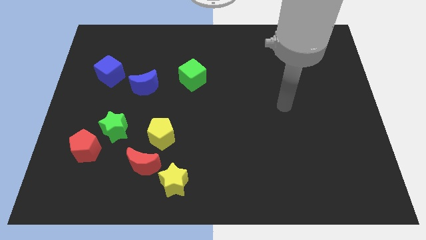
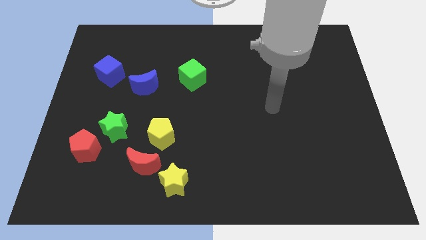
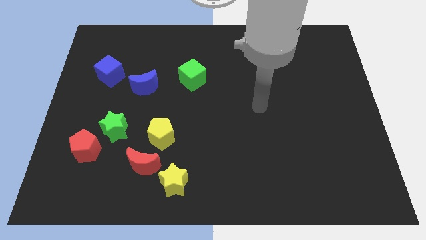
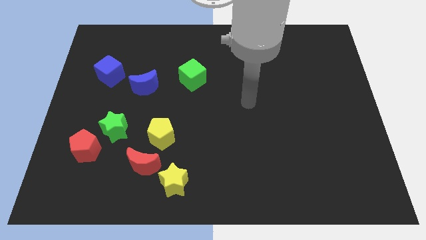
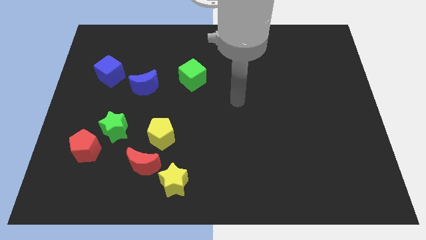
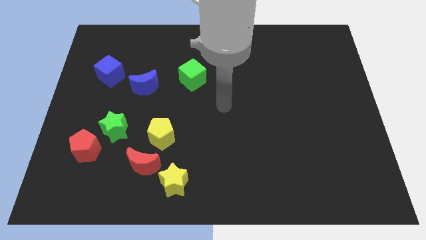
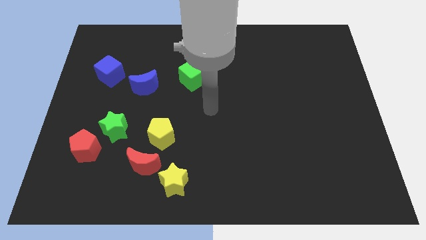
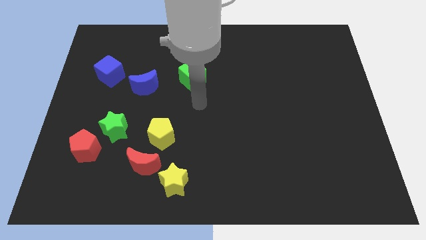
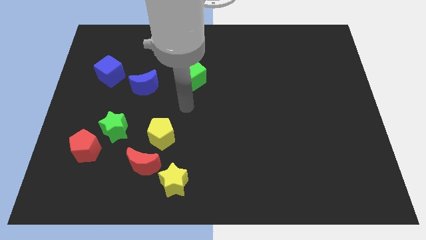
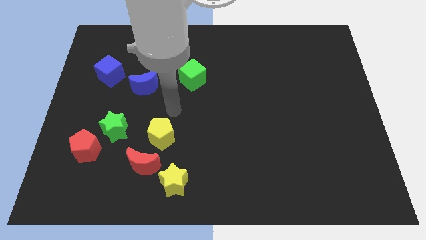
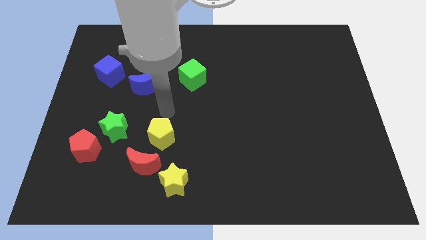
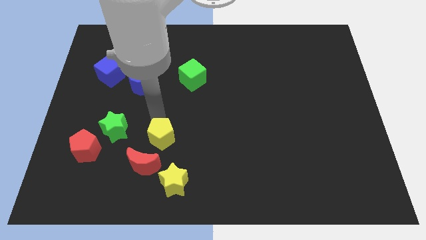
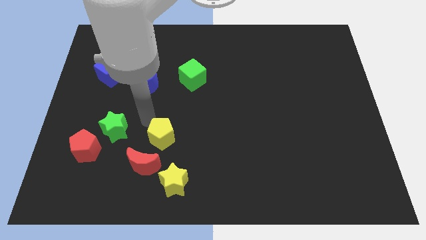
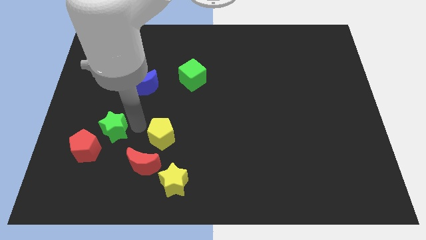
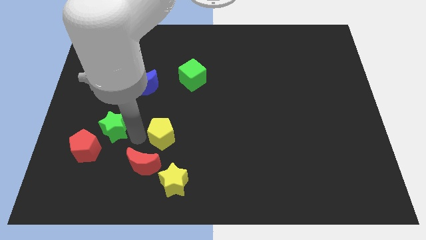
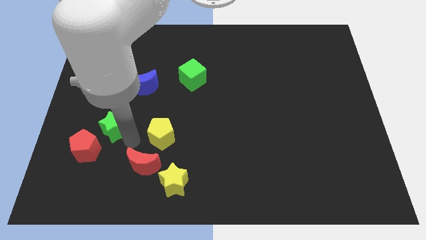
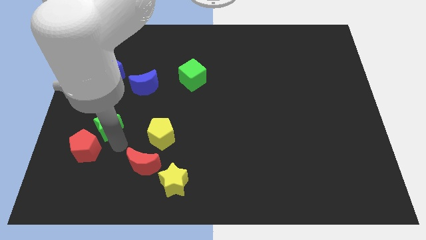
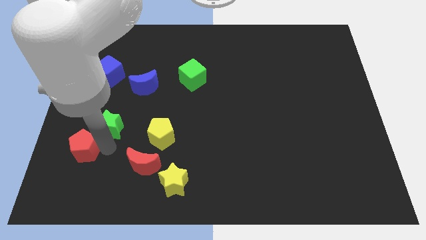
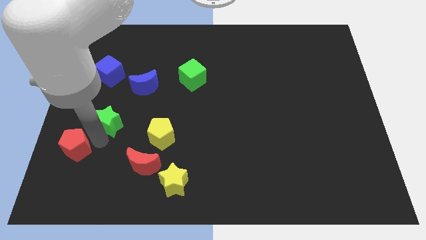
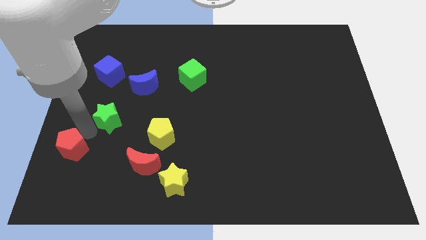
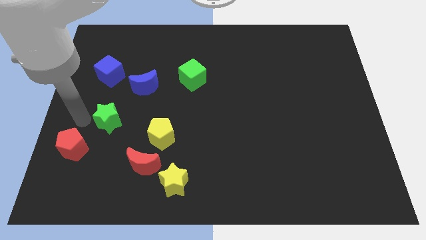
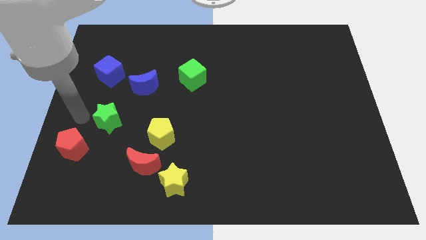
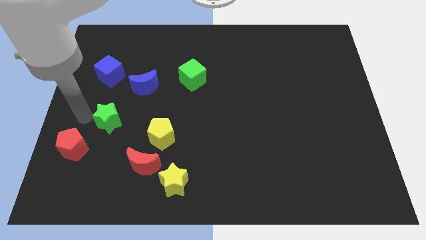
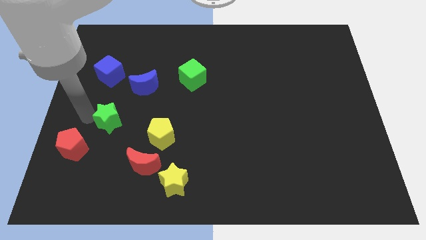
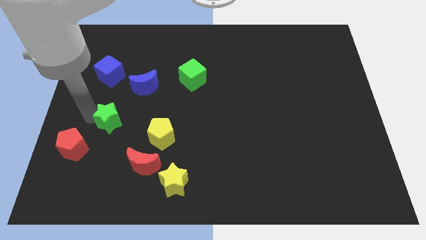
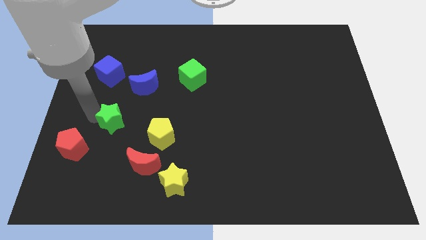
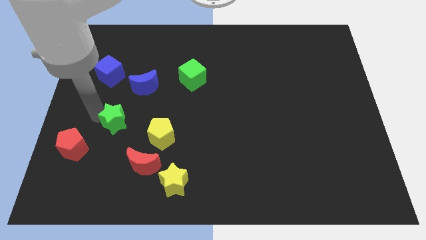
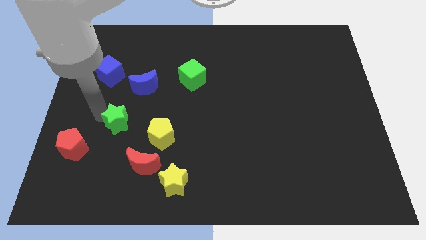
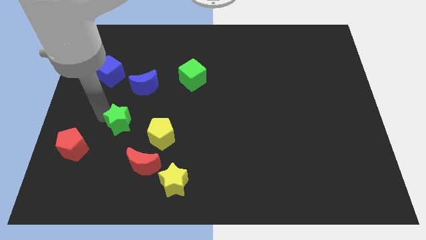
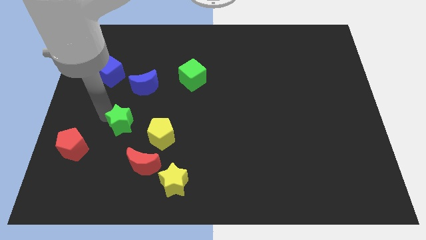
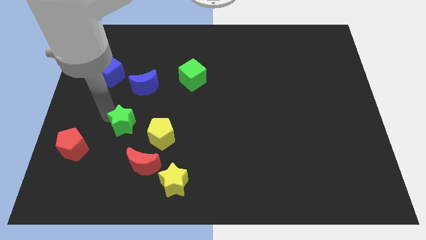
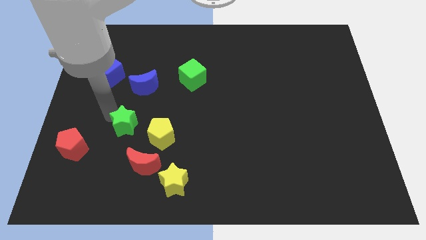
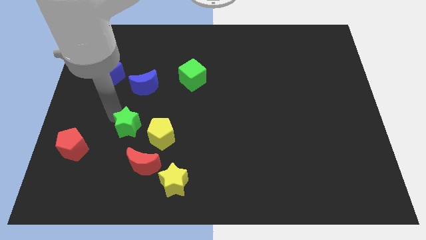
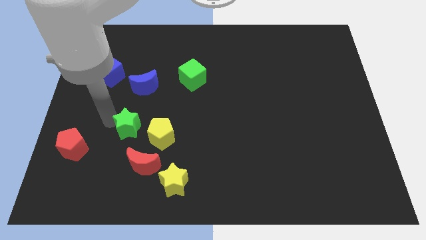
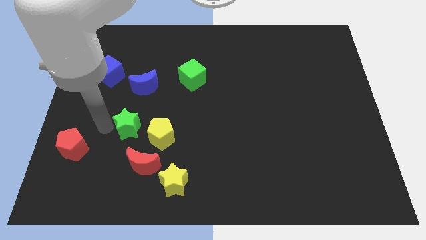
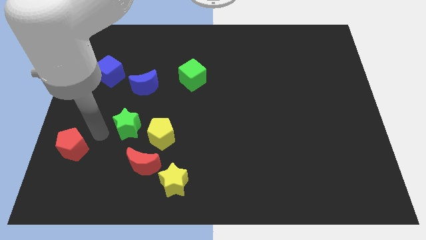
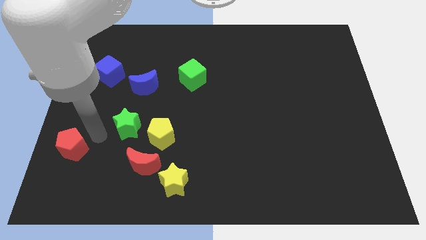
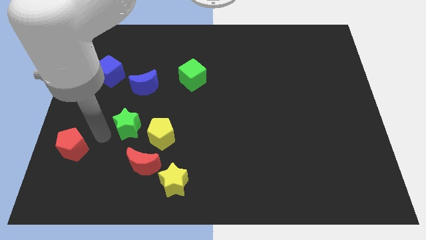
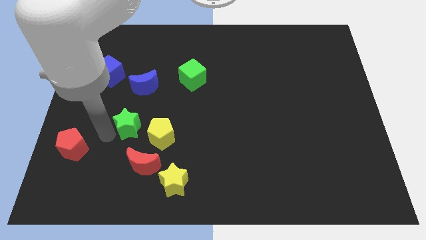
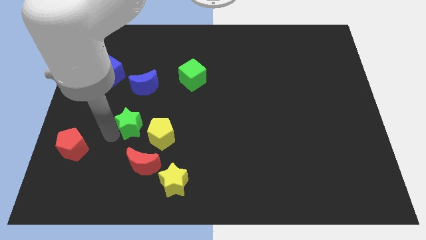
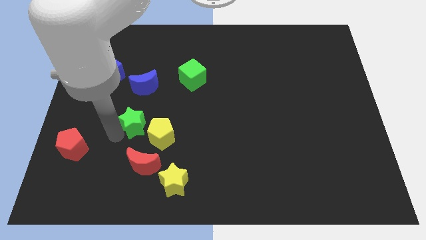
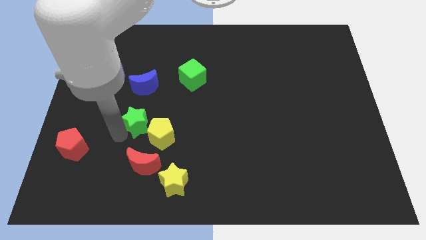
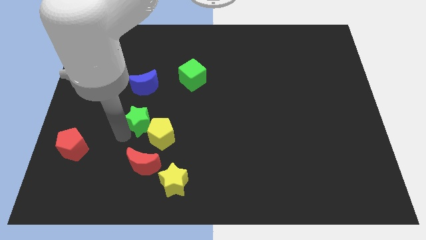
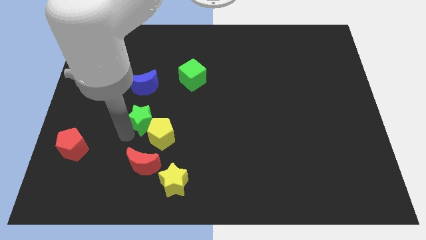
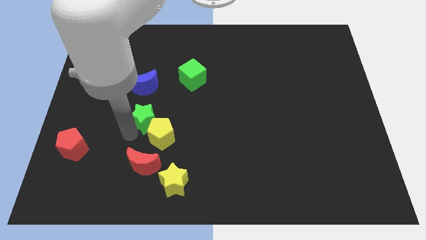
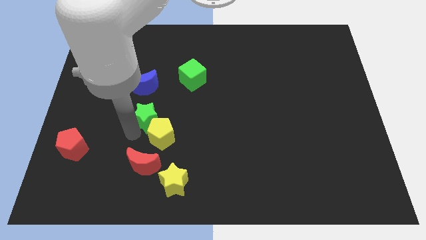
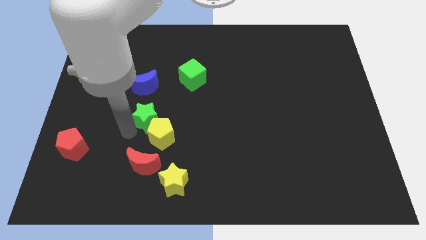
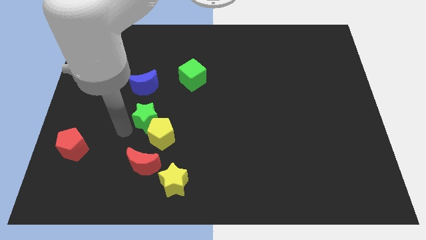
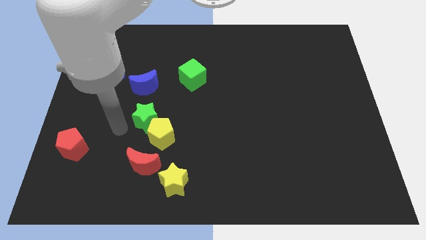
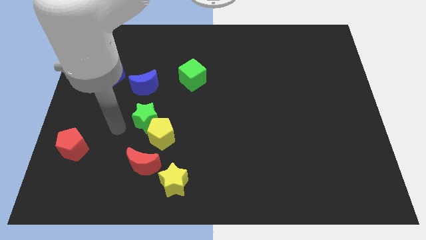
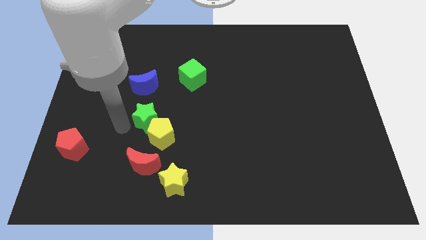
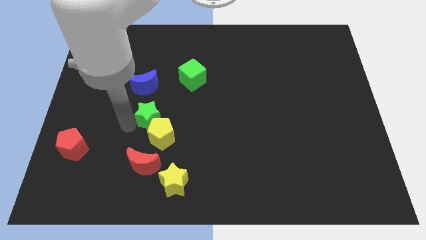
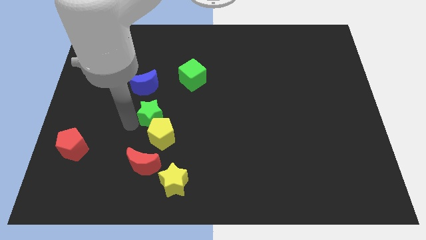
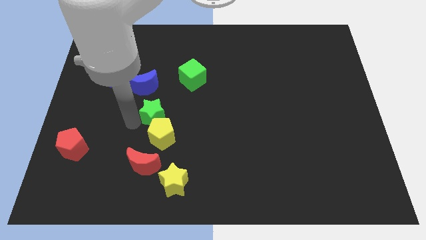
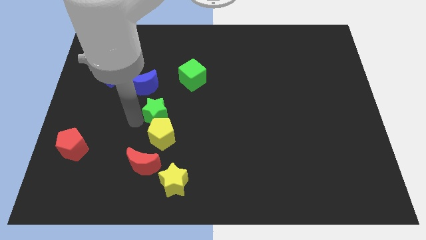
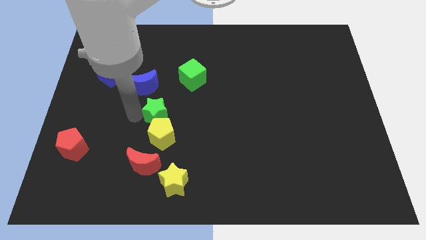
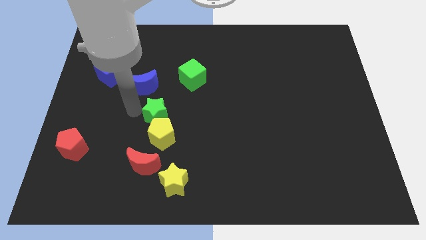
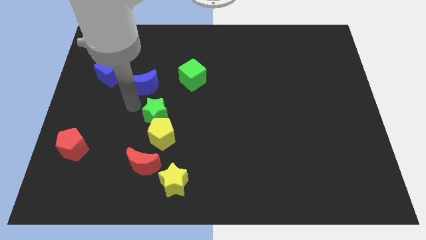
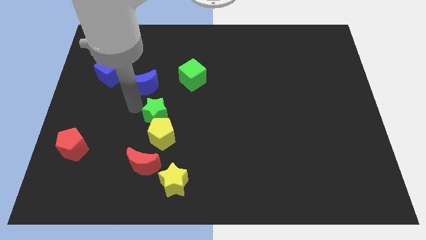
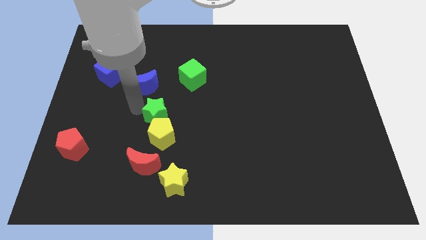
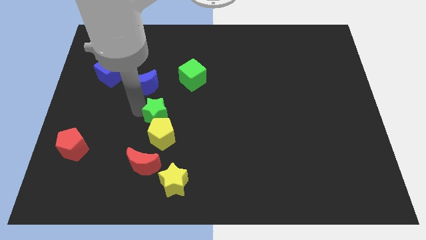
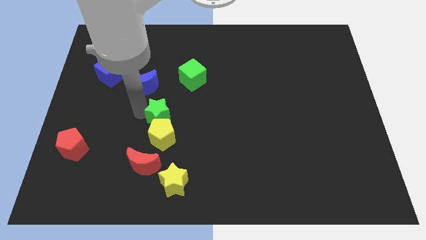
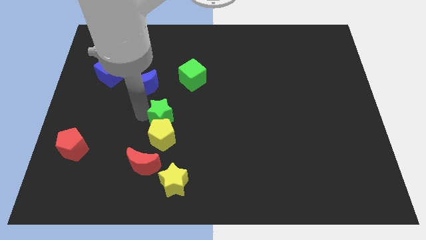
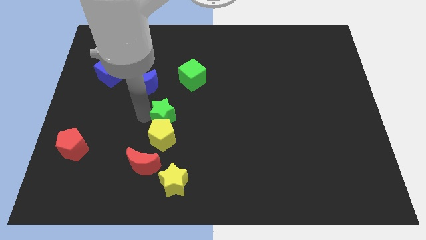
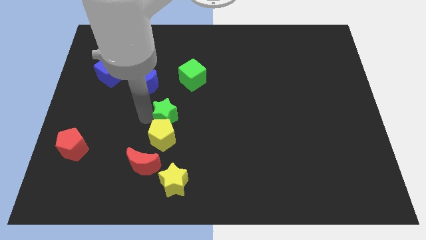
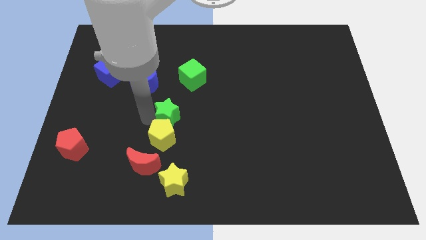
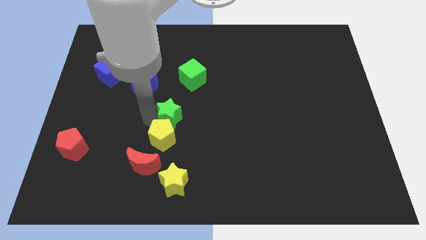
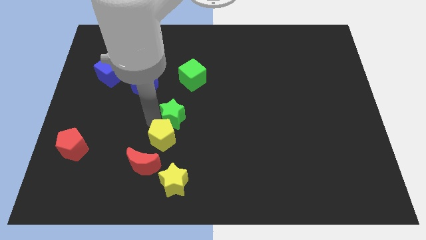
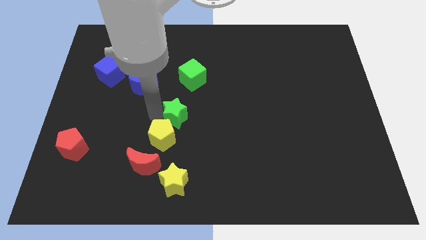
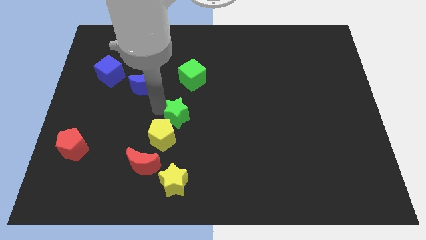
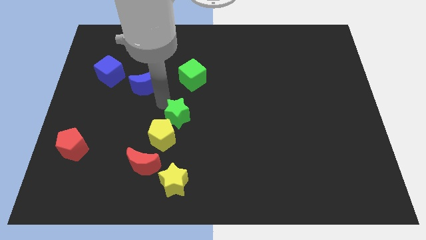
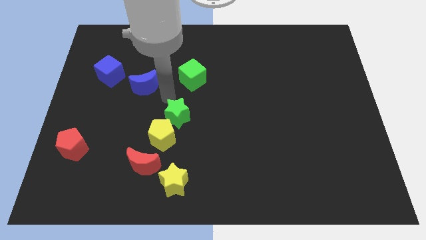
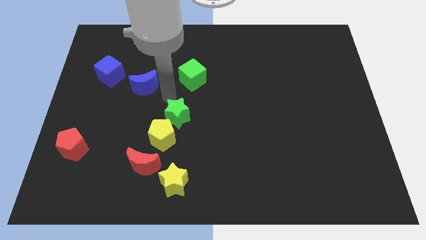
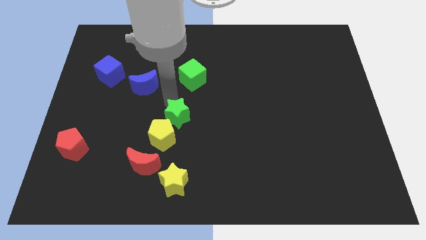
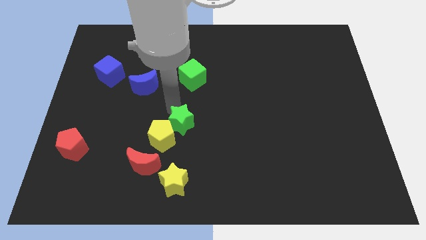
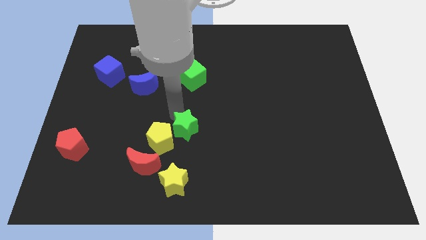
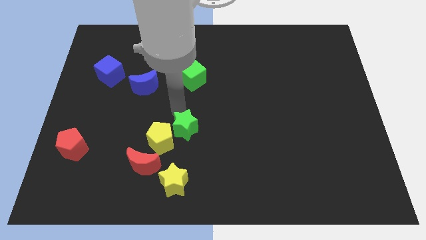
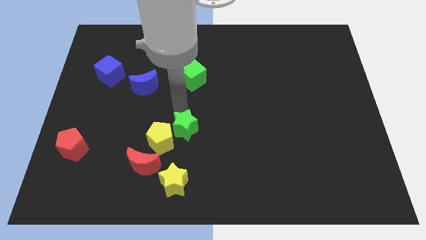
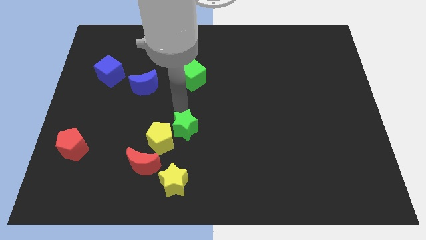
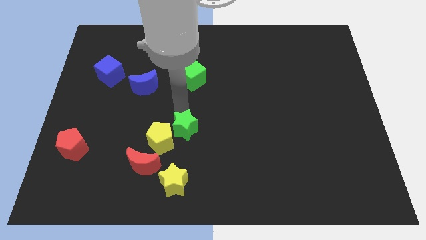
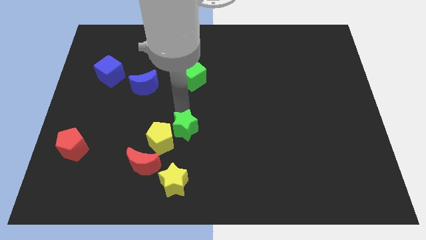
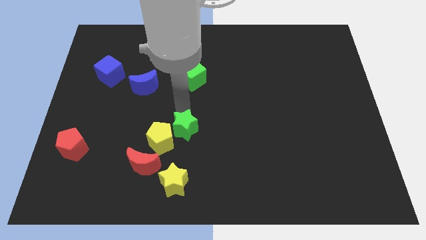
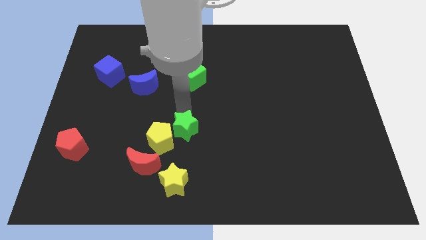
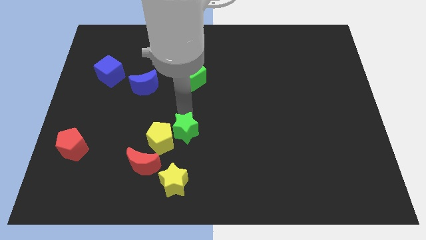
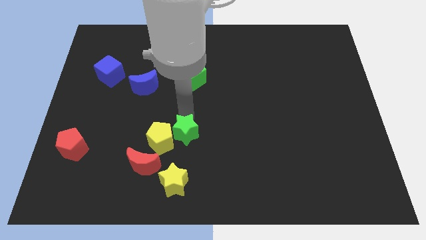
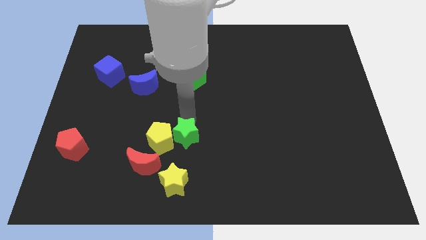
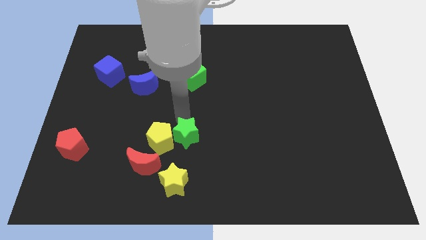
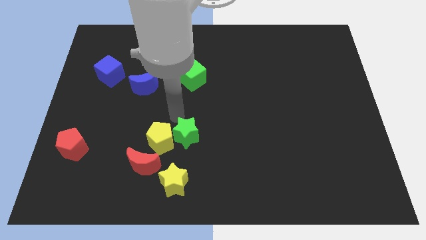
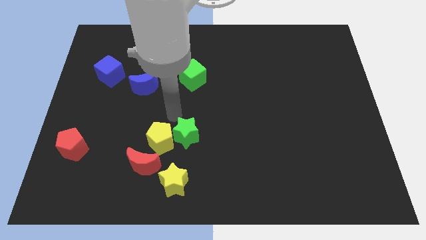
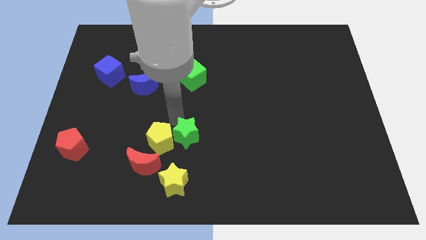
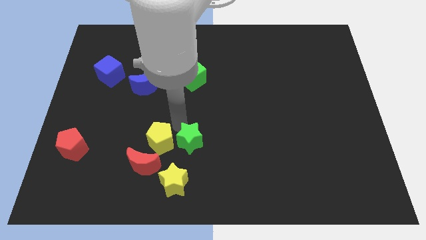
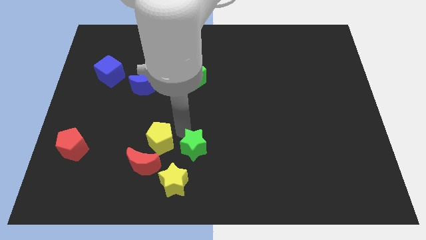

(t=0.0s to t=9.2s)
move the green star to the top right of the yellow star
